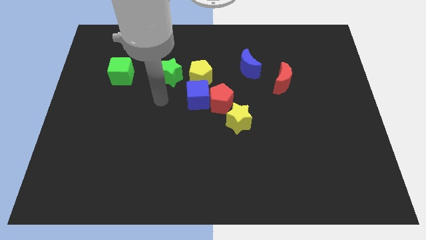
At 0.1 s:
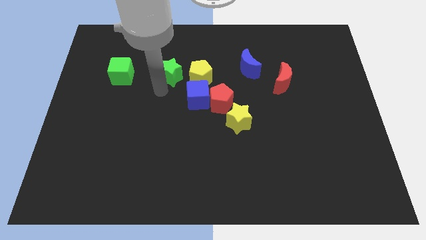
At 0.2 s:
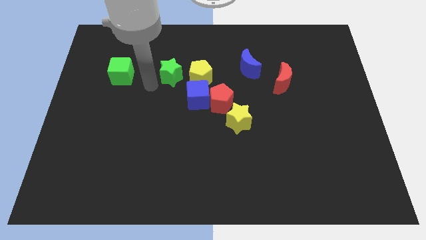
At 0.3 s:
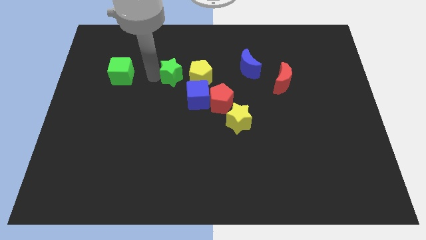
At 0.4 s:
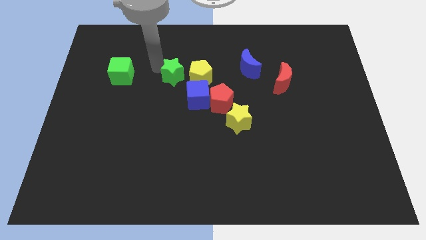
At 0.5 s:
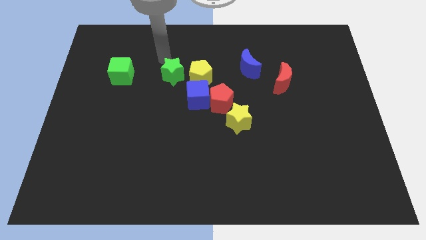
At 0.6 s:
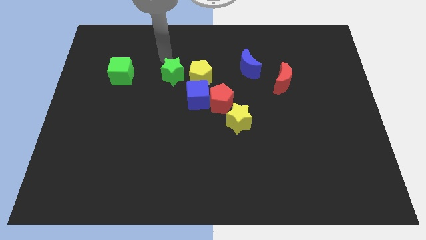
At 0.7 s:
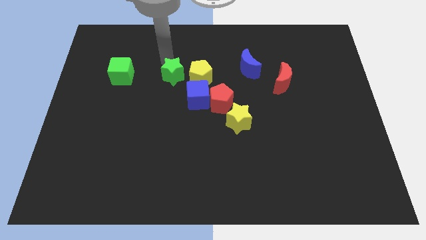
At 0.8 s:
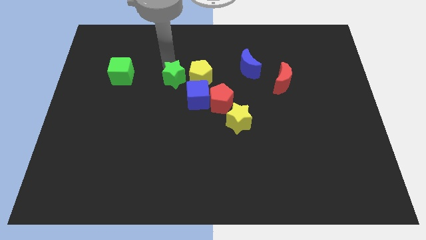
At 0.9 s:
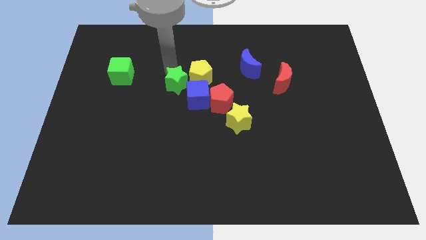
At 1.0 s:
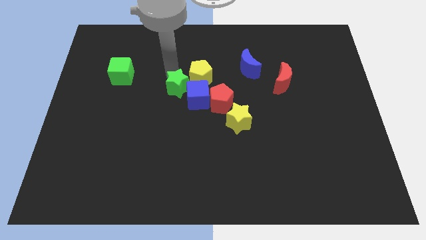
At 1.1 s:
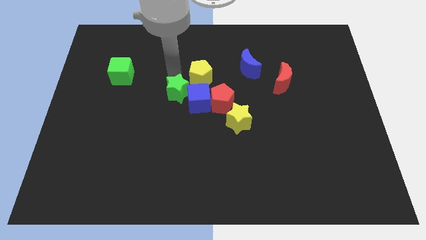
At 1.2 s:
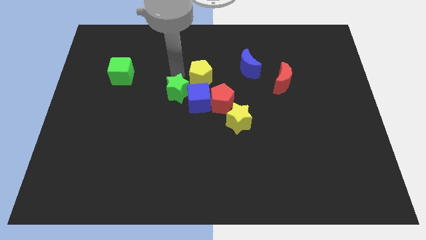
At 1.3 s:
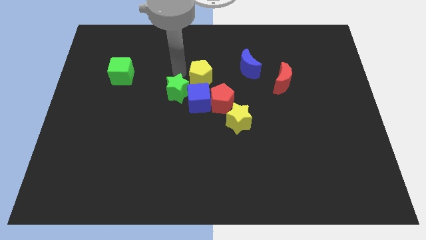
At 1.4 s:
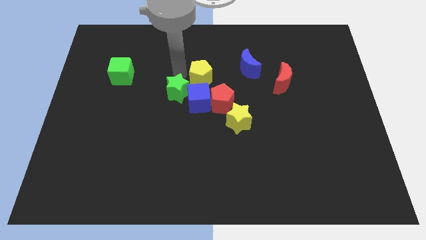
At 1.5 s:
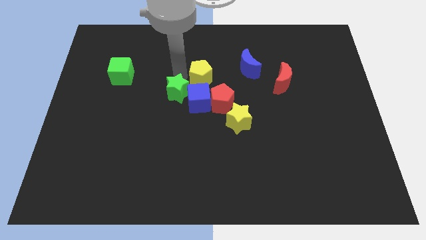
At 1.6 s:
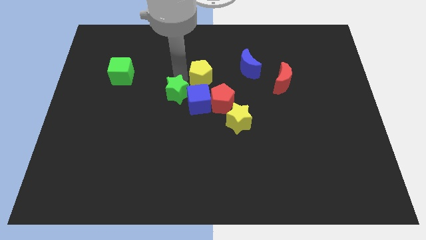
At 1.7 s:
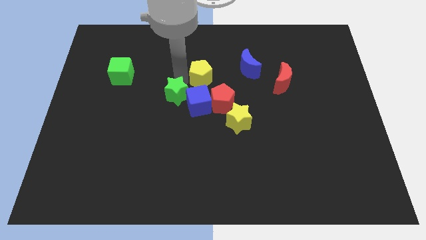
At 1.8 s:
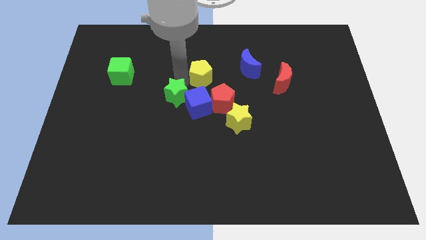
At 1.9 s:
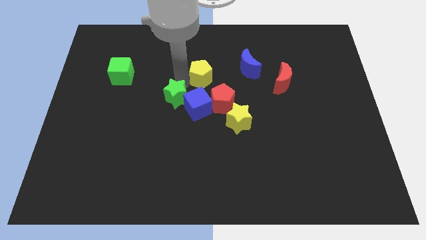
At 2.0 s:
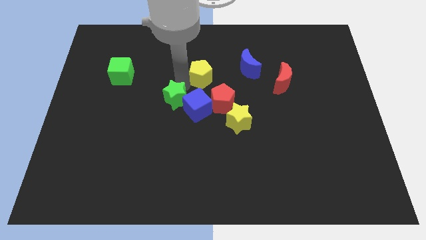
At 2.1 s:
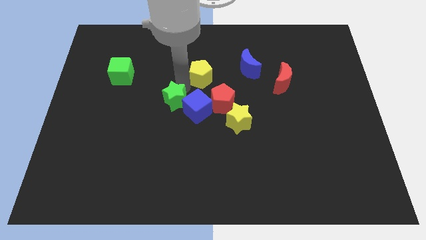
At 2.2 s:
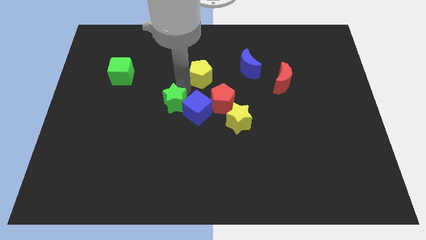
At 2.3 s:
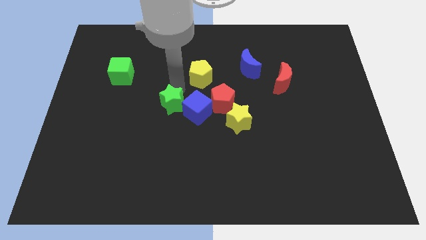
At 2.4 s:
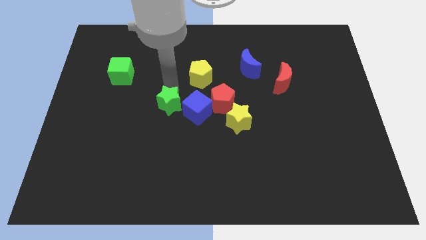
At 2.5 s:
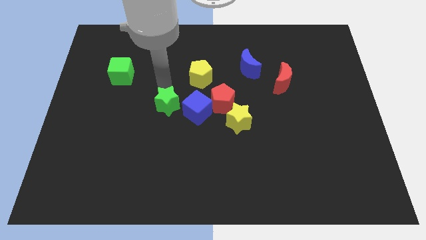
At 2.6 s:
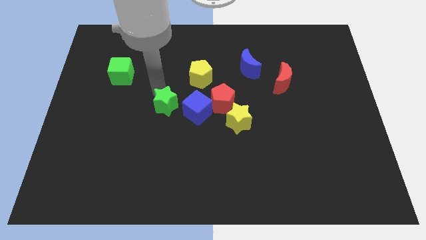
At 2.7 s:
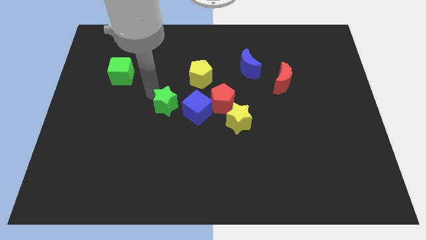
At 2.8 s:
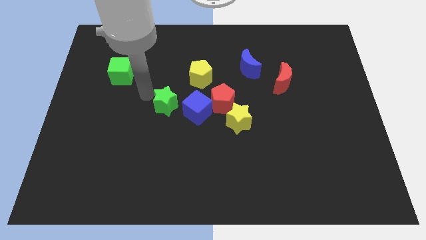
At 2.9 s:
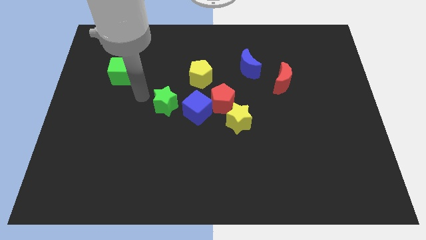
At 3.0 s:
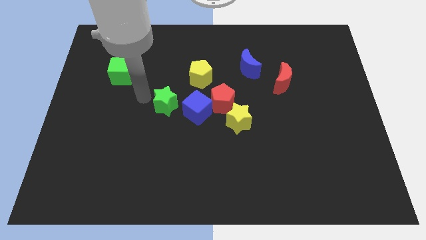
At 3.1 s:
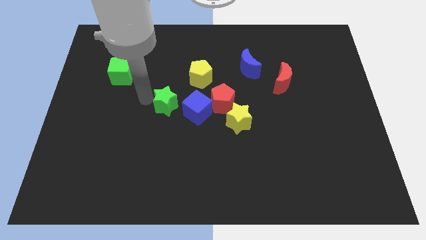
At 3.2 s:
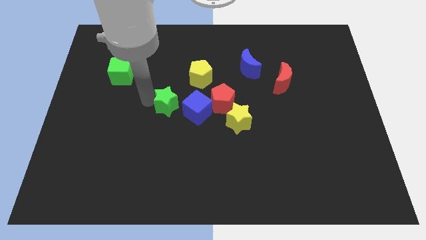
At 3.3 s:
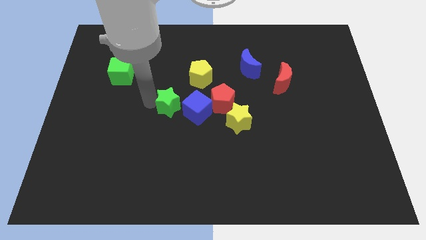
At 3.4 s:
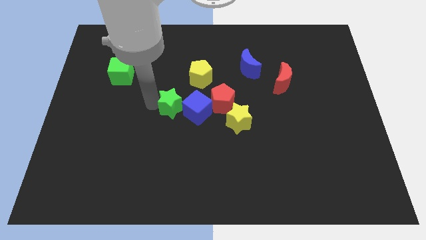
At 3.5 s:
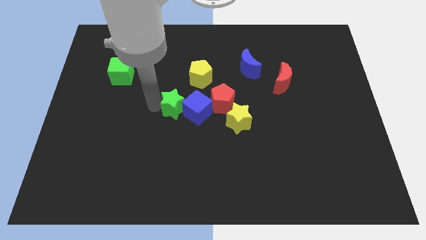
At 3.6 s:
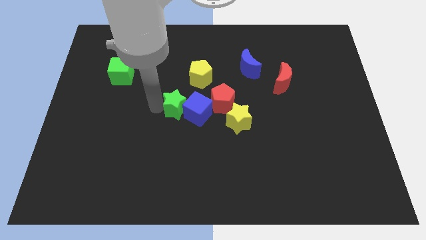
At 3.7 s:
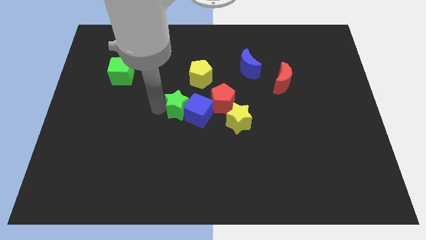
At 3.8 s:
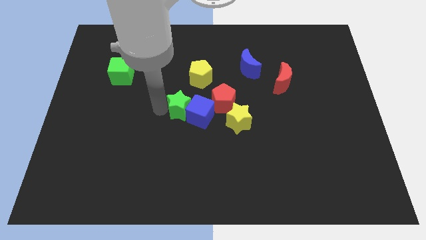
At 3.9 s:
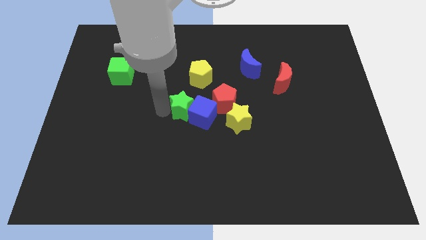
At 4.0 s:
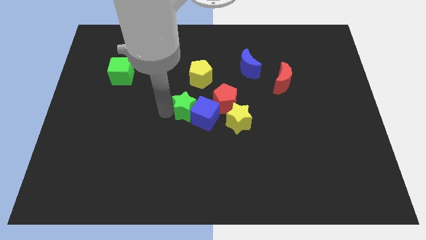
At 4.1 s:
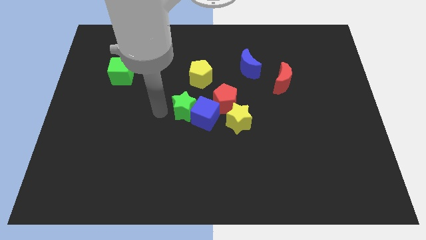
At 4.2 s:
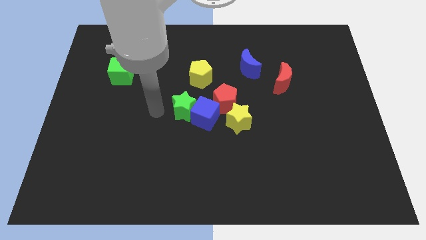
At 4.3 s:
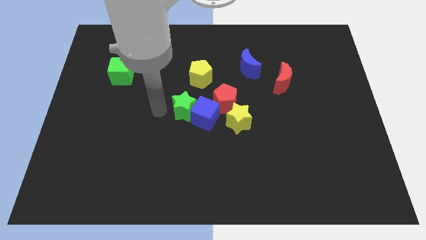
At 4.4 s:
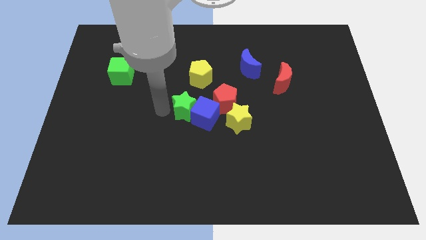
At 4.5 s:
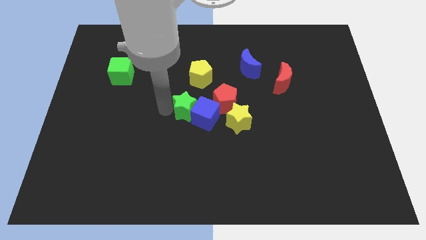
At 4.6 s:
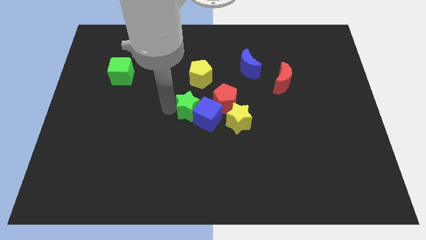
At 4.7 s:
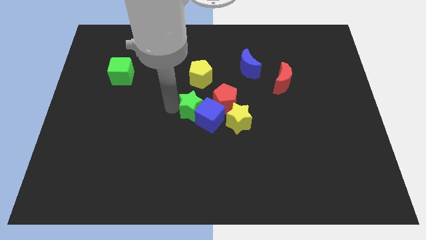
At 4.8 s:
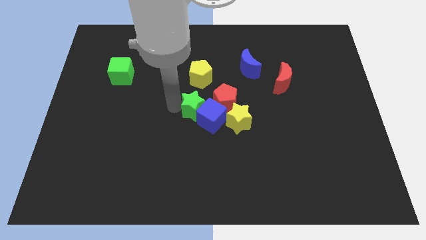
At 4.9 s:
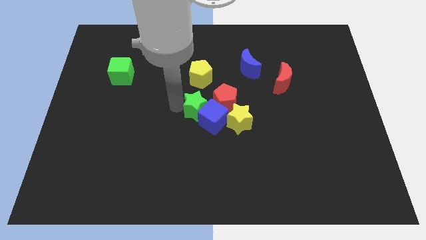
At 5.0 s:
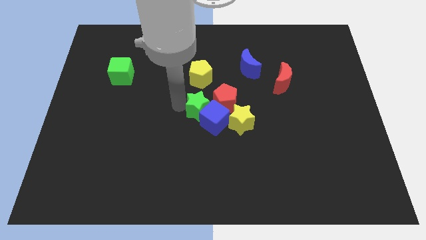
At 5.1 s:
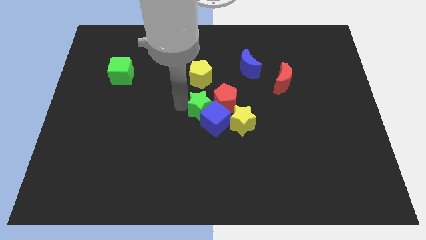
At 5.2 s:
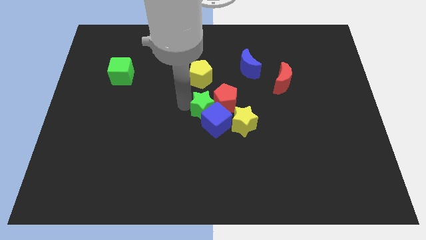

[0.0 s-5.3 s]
slide the green star next to the red pentagon

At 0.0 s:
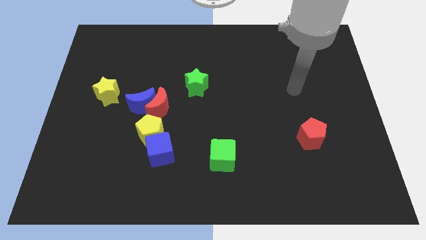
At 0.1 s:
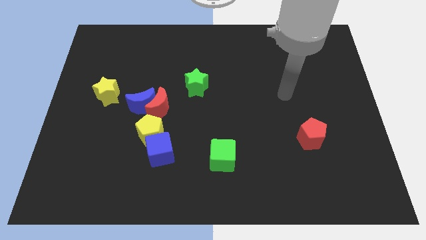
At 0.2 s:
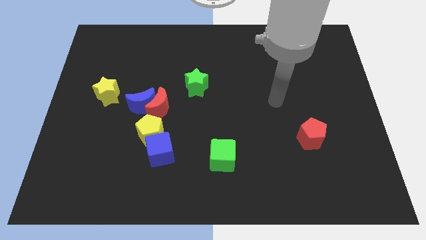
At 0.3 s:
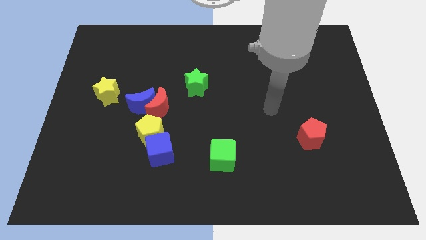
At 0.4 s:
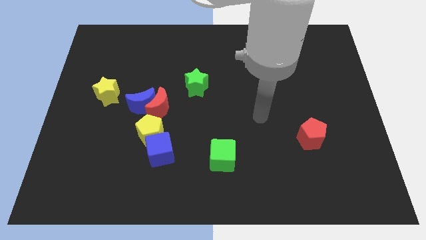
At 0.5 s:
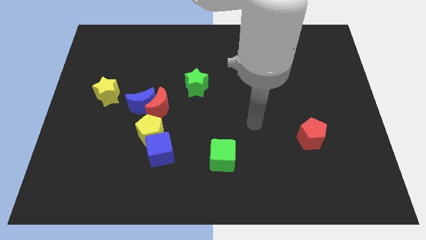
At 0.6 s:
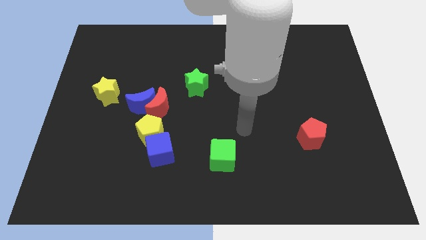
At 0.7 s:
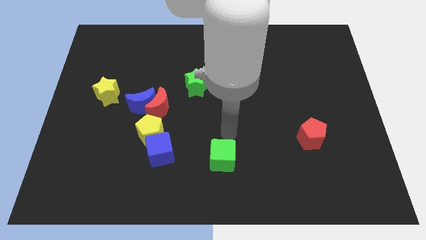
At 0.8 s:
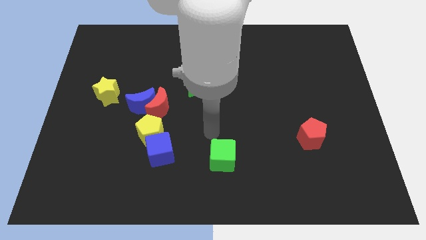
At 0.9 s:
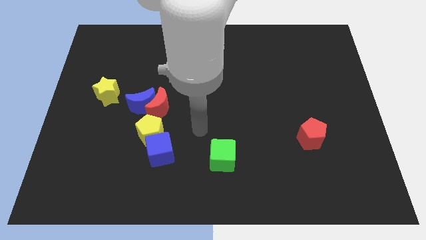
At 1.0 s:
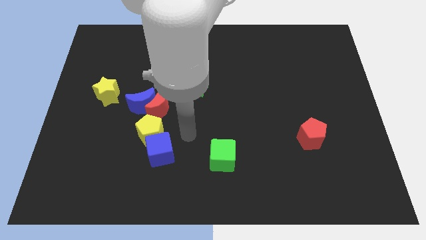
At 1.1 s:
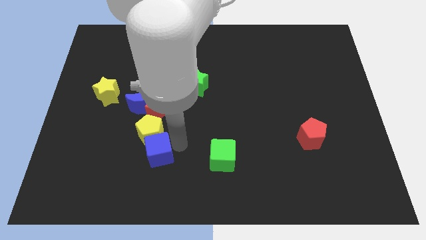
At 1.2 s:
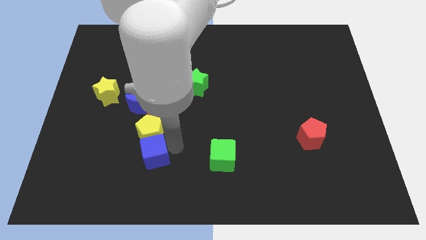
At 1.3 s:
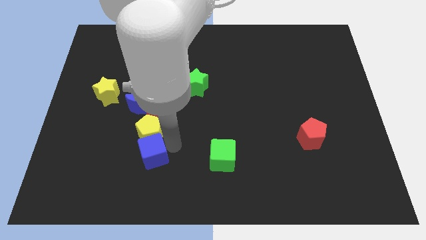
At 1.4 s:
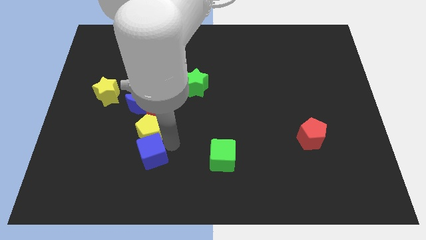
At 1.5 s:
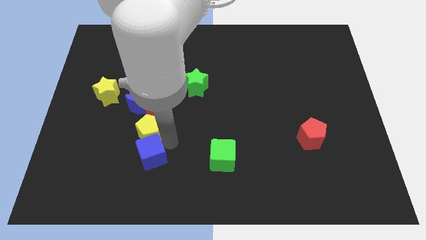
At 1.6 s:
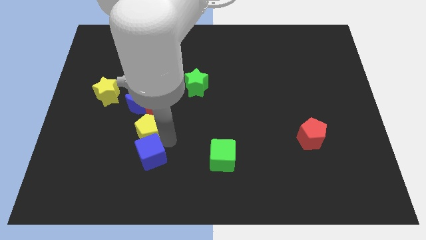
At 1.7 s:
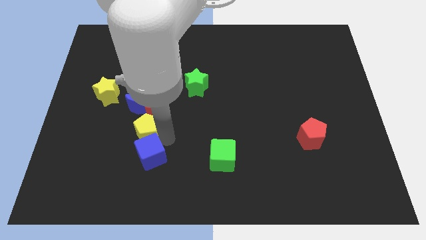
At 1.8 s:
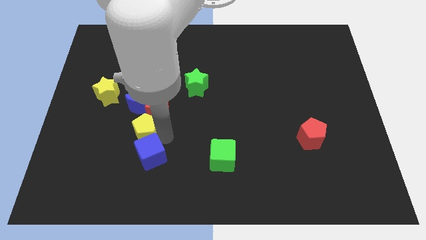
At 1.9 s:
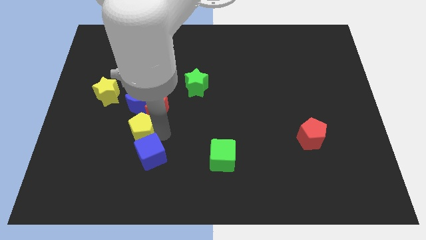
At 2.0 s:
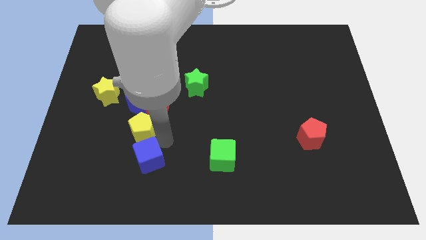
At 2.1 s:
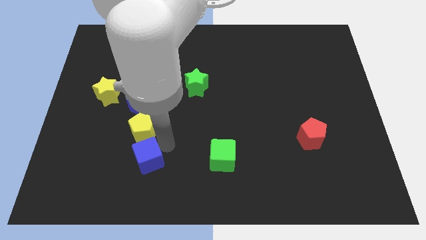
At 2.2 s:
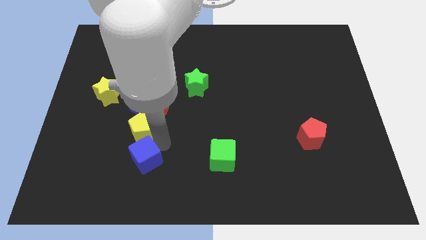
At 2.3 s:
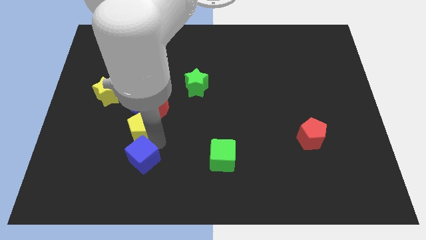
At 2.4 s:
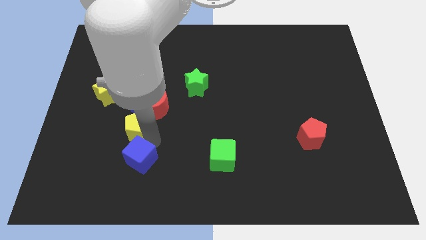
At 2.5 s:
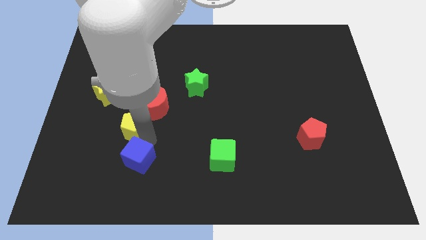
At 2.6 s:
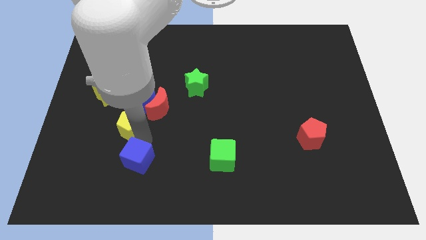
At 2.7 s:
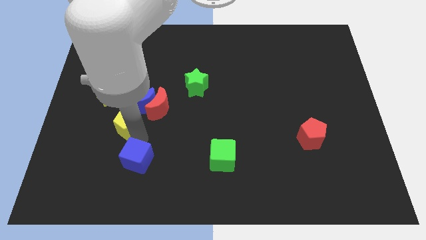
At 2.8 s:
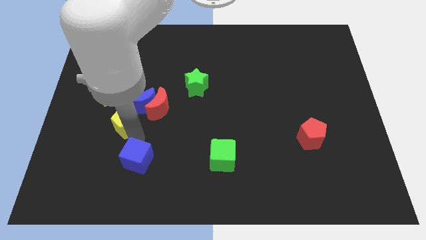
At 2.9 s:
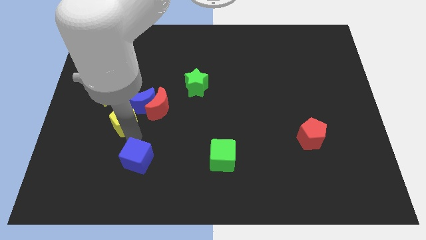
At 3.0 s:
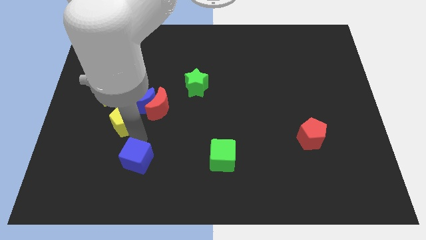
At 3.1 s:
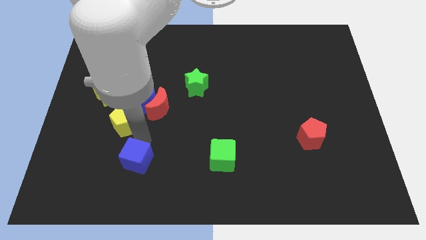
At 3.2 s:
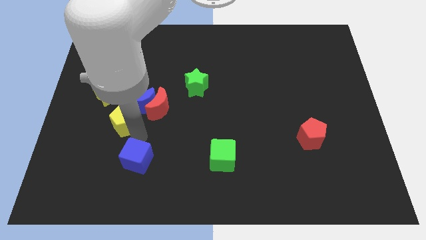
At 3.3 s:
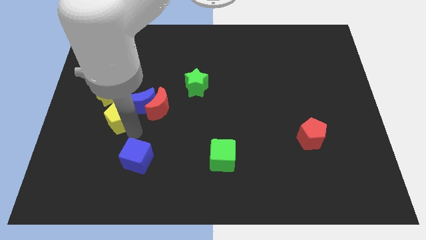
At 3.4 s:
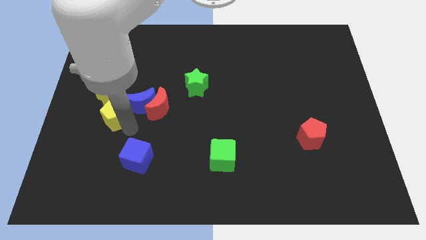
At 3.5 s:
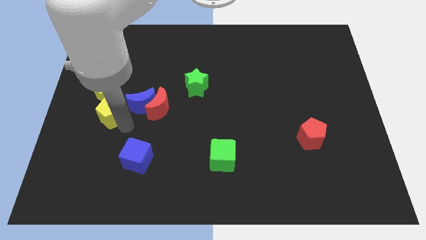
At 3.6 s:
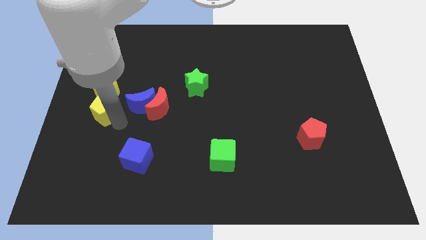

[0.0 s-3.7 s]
slide the yellow pentagon to the yellow star
